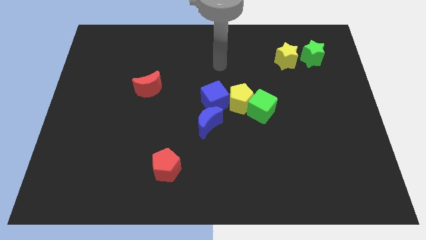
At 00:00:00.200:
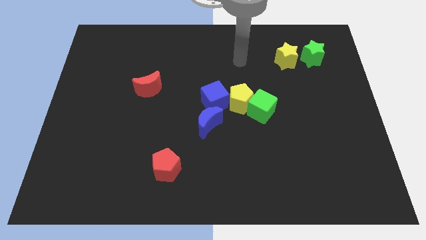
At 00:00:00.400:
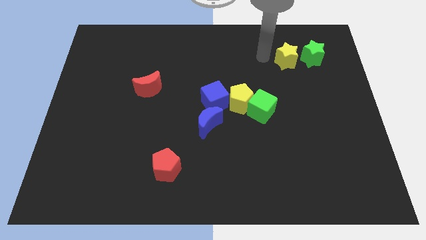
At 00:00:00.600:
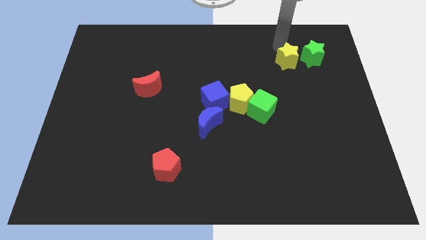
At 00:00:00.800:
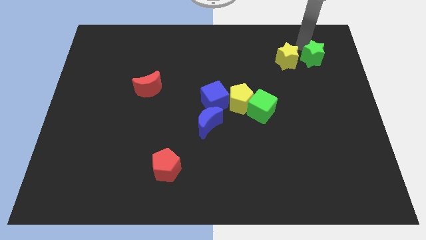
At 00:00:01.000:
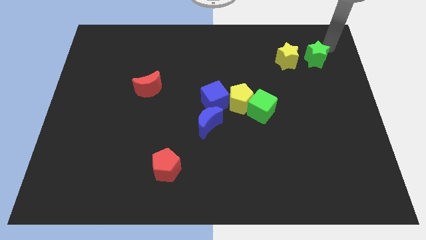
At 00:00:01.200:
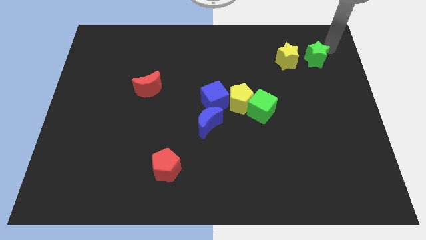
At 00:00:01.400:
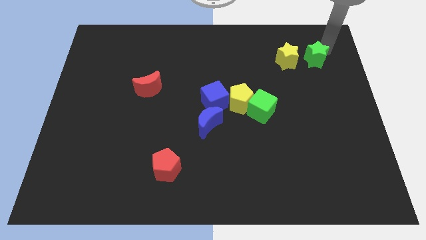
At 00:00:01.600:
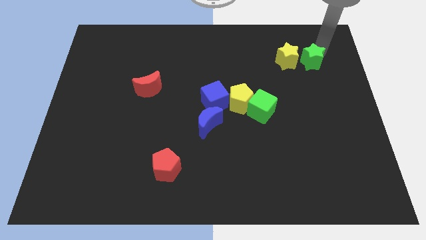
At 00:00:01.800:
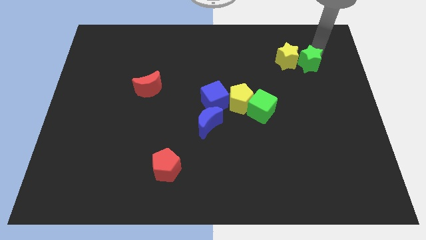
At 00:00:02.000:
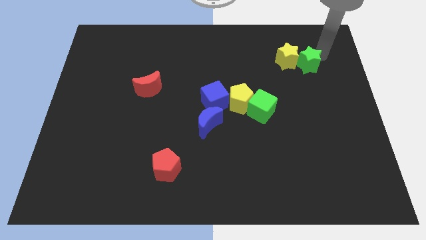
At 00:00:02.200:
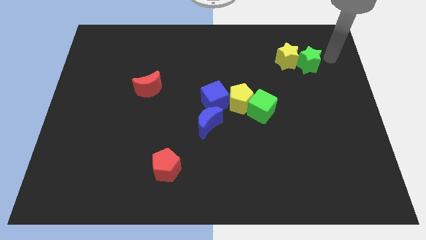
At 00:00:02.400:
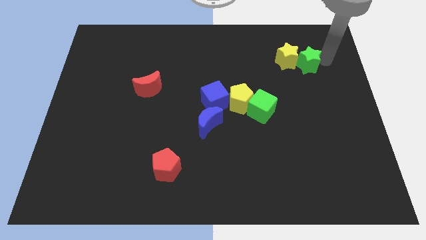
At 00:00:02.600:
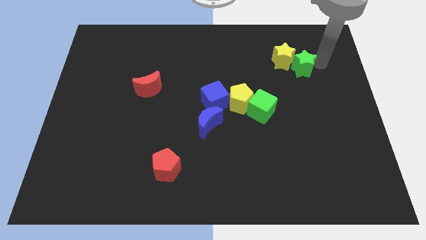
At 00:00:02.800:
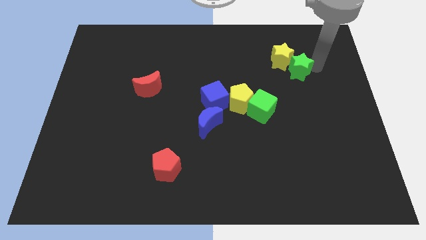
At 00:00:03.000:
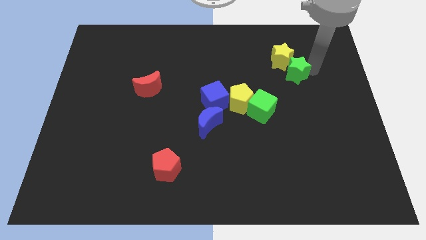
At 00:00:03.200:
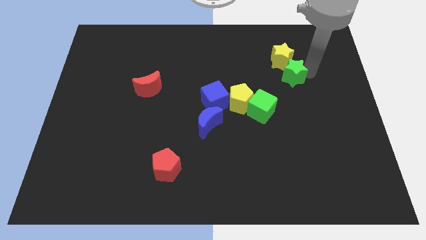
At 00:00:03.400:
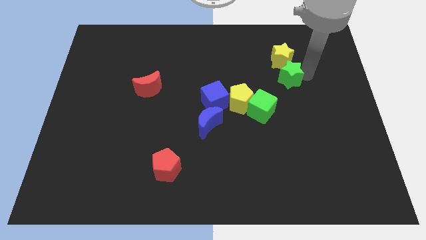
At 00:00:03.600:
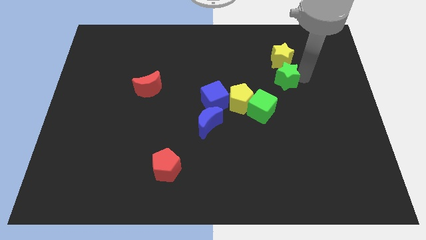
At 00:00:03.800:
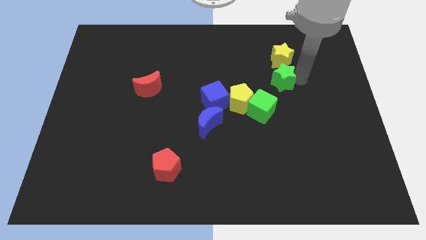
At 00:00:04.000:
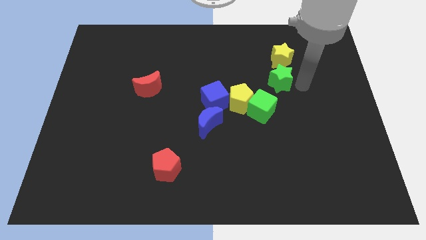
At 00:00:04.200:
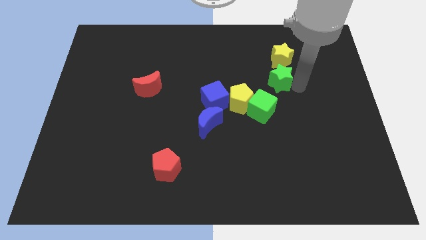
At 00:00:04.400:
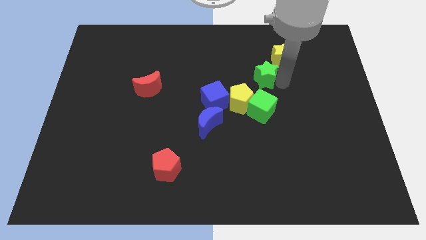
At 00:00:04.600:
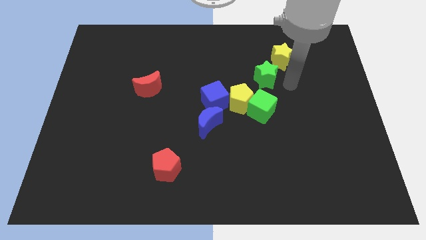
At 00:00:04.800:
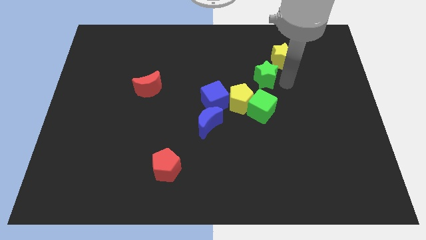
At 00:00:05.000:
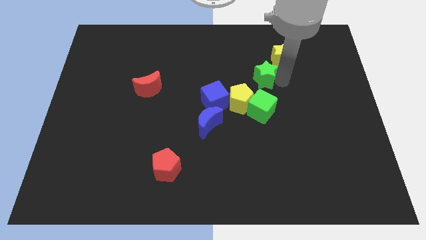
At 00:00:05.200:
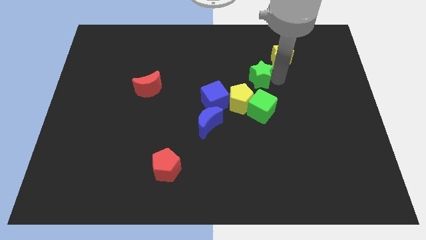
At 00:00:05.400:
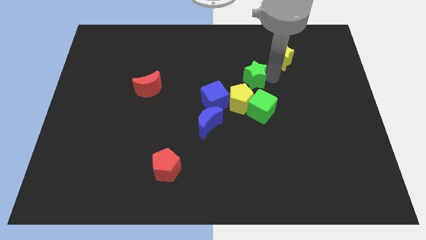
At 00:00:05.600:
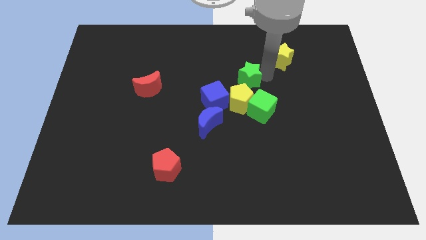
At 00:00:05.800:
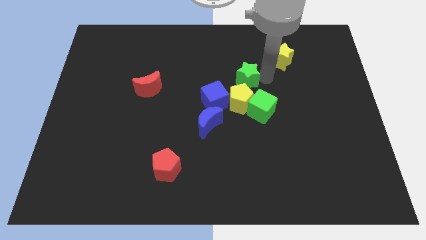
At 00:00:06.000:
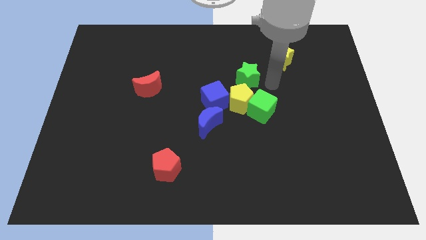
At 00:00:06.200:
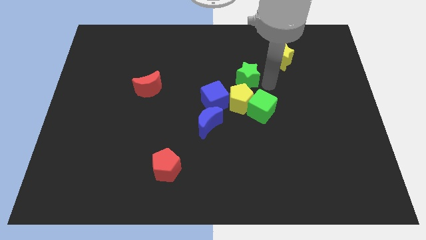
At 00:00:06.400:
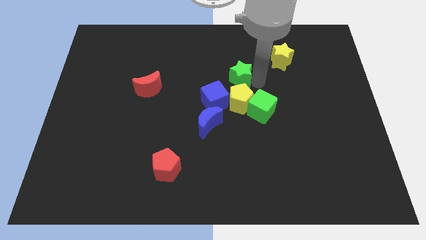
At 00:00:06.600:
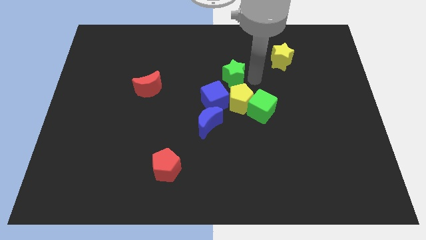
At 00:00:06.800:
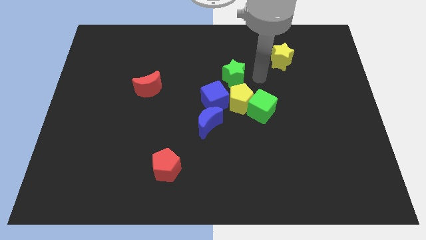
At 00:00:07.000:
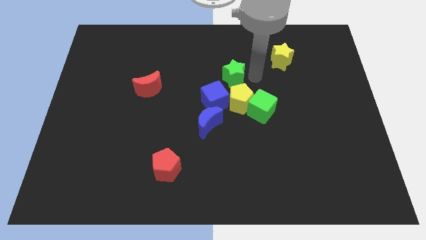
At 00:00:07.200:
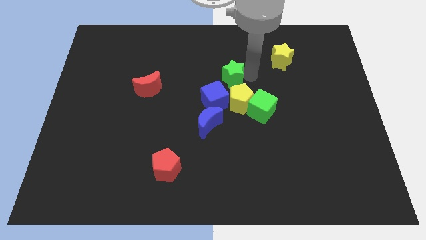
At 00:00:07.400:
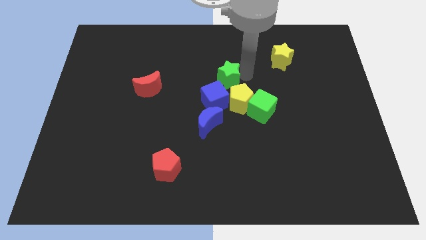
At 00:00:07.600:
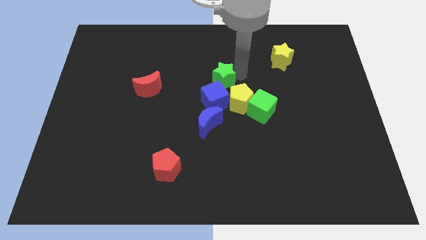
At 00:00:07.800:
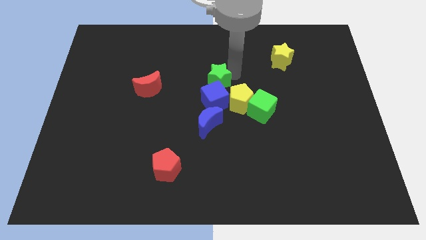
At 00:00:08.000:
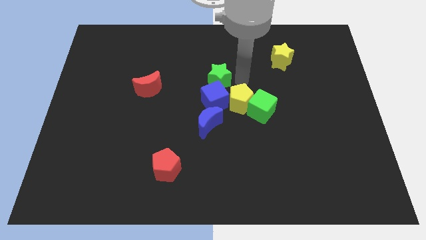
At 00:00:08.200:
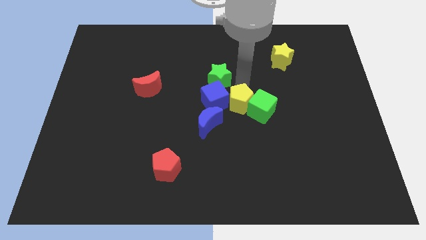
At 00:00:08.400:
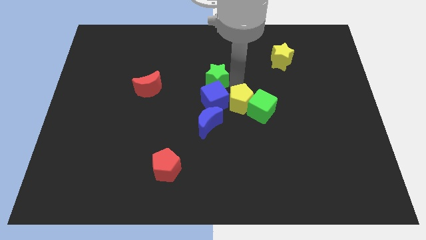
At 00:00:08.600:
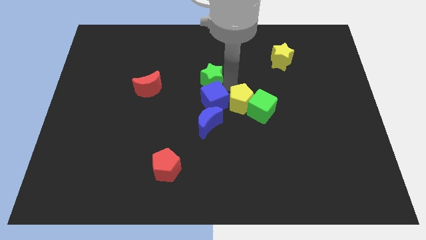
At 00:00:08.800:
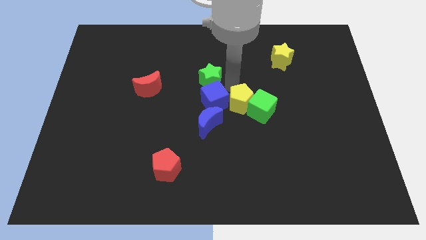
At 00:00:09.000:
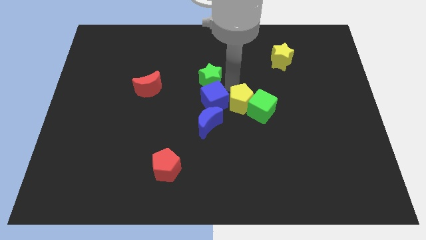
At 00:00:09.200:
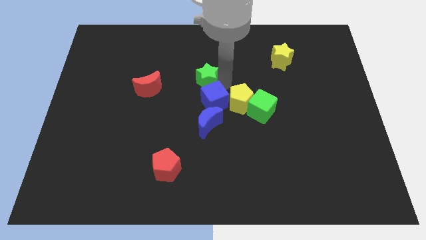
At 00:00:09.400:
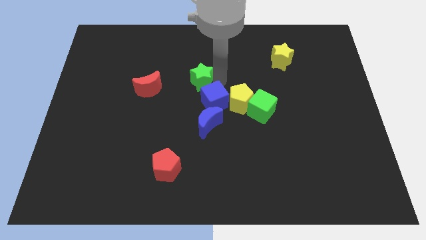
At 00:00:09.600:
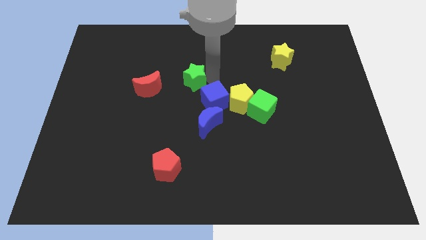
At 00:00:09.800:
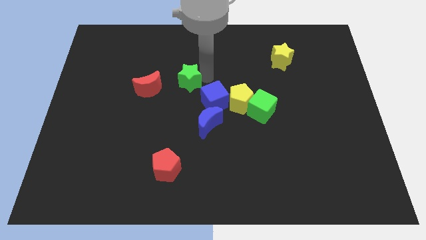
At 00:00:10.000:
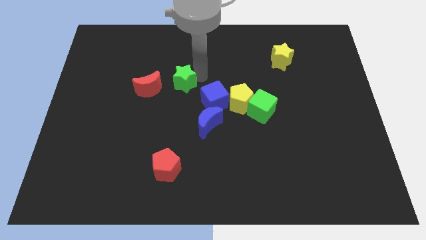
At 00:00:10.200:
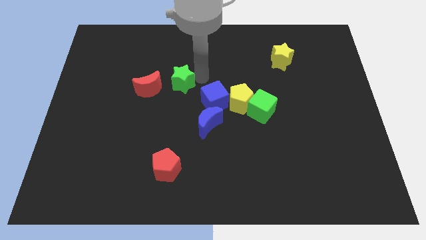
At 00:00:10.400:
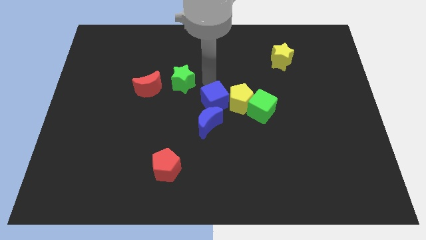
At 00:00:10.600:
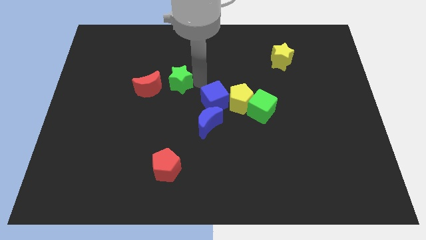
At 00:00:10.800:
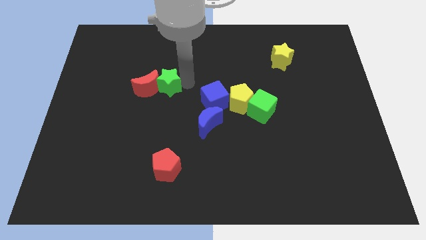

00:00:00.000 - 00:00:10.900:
move the green star close to the red moon

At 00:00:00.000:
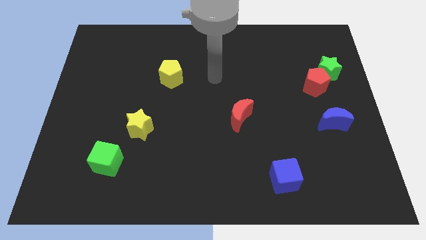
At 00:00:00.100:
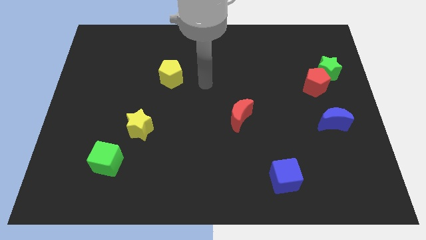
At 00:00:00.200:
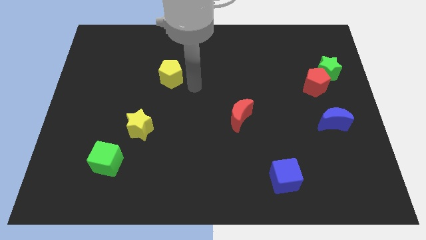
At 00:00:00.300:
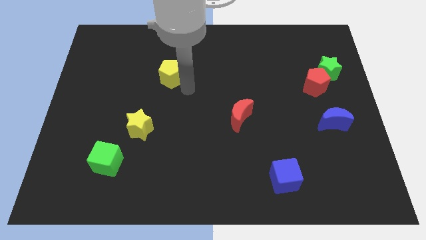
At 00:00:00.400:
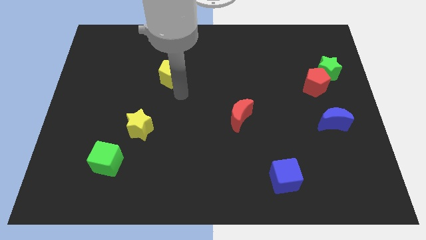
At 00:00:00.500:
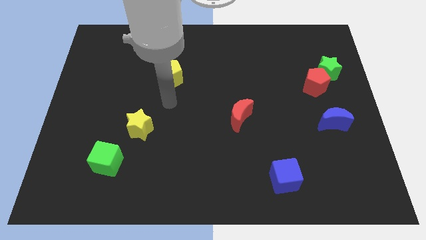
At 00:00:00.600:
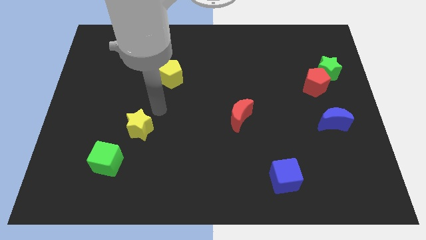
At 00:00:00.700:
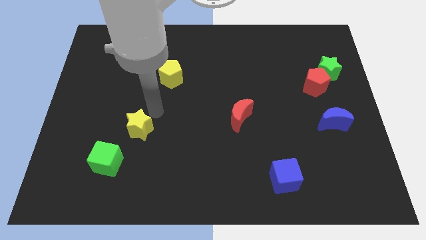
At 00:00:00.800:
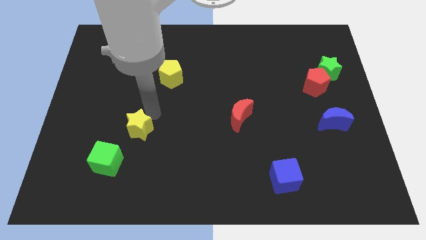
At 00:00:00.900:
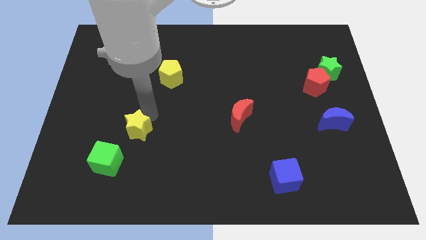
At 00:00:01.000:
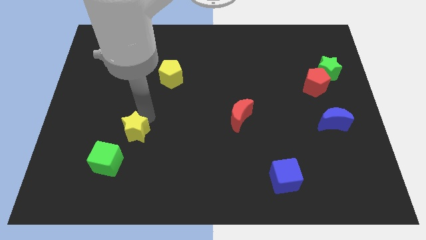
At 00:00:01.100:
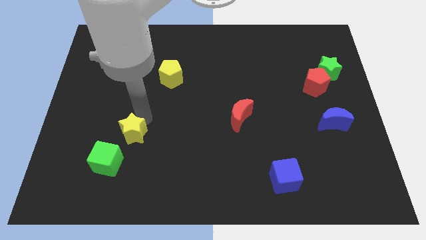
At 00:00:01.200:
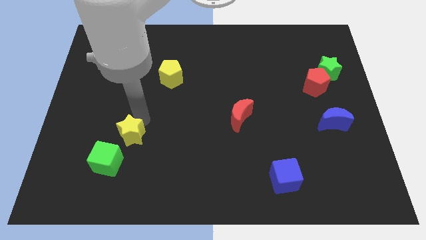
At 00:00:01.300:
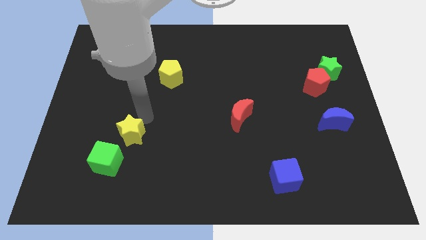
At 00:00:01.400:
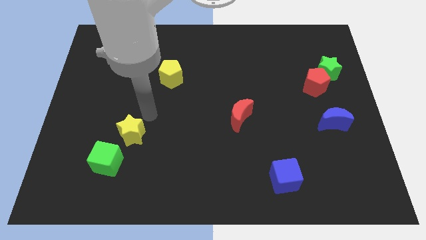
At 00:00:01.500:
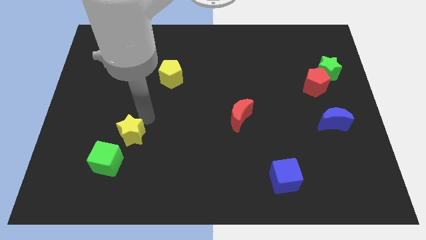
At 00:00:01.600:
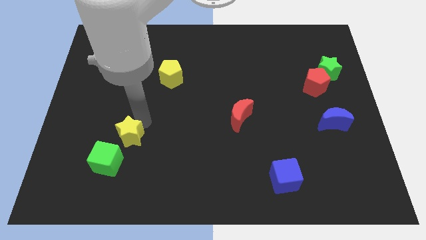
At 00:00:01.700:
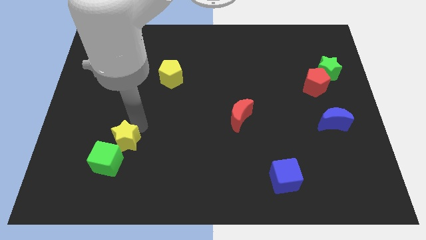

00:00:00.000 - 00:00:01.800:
move the yellow star close to the green cube
